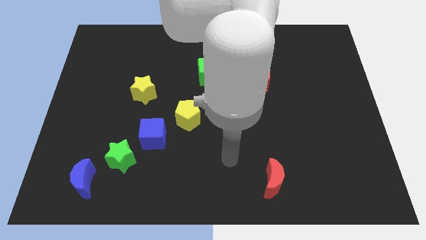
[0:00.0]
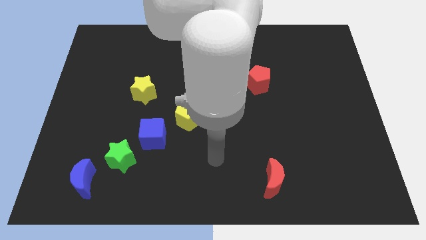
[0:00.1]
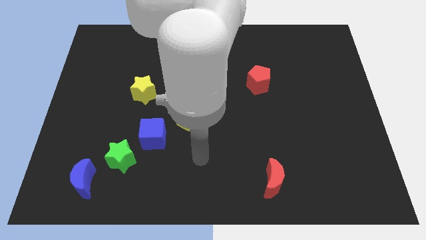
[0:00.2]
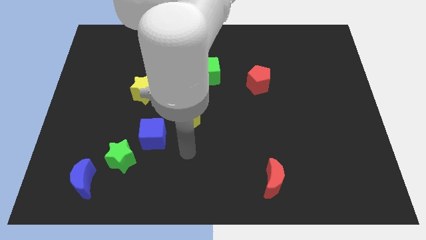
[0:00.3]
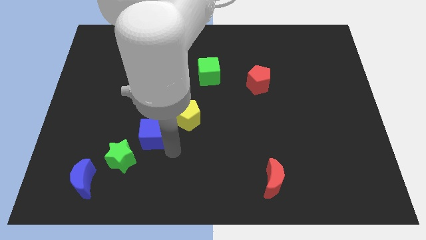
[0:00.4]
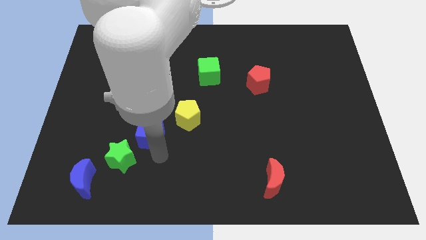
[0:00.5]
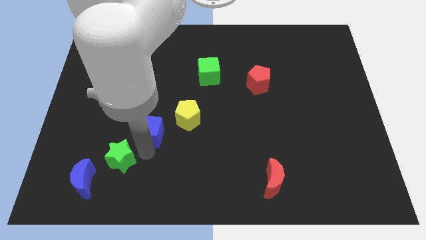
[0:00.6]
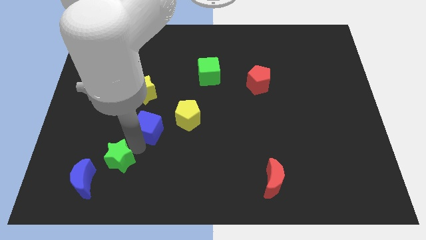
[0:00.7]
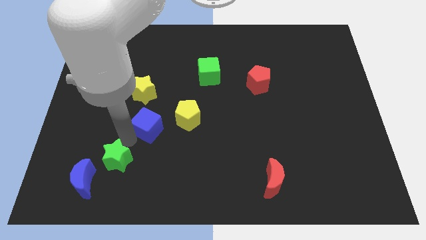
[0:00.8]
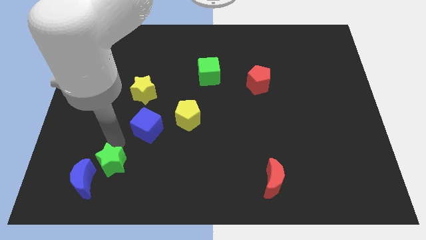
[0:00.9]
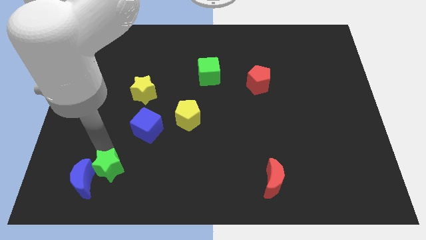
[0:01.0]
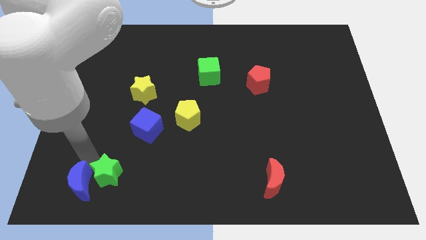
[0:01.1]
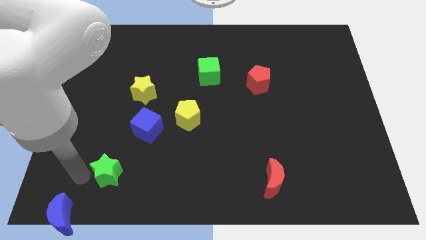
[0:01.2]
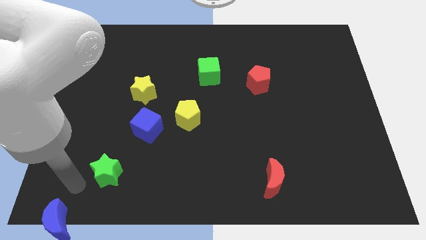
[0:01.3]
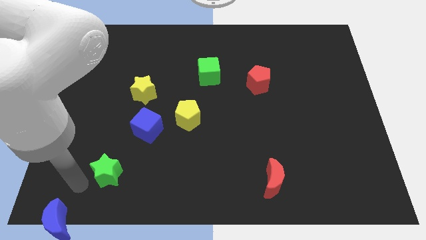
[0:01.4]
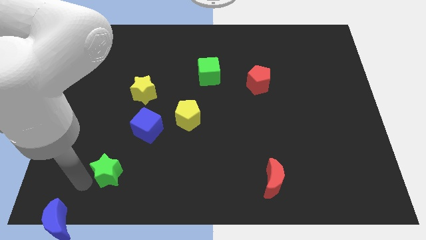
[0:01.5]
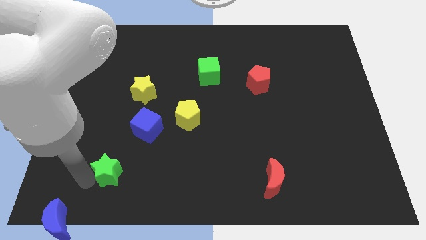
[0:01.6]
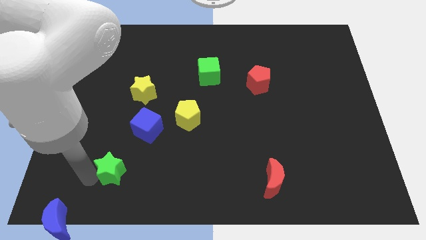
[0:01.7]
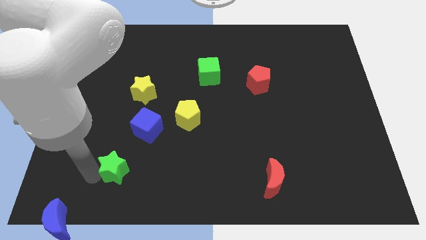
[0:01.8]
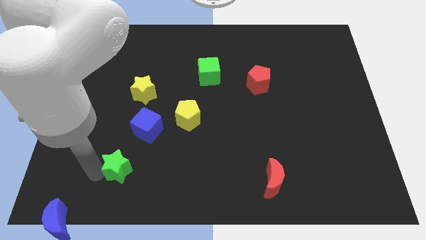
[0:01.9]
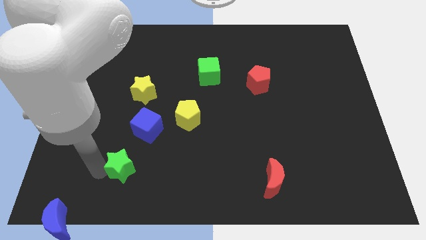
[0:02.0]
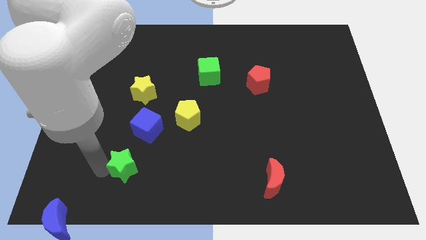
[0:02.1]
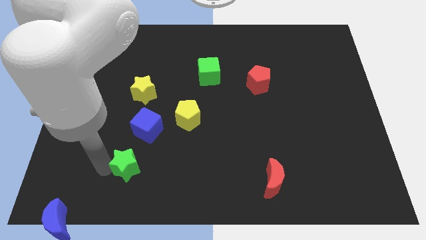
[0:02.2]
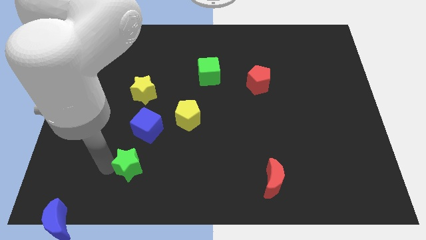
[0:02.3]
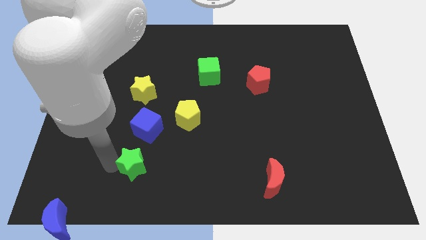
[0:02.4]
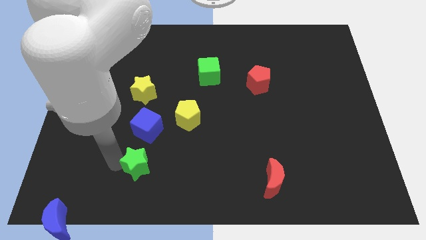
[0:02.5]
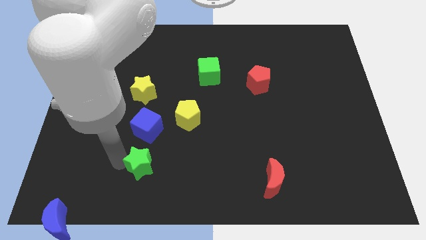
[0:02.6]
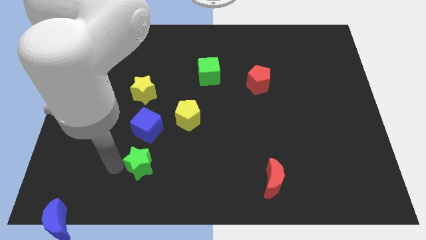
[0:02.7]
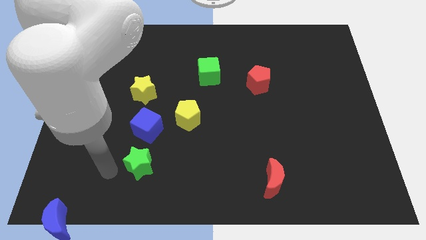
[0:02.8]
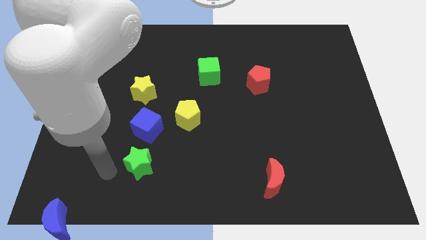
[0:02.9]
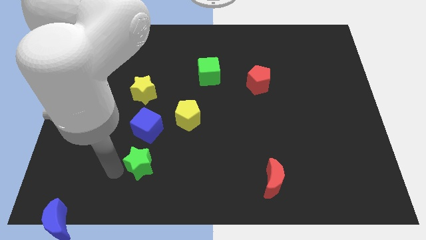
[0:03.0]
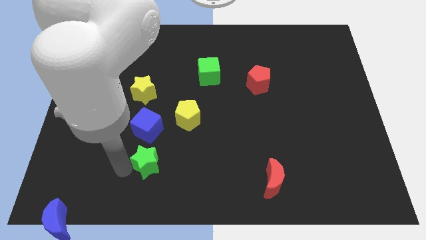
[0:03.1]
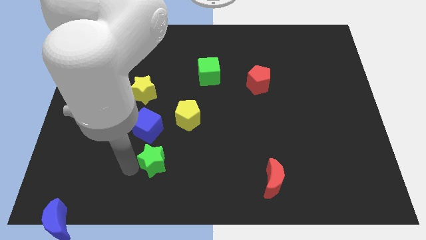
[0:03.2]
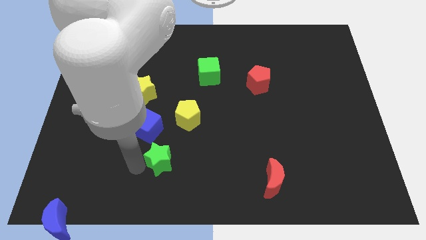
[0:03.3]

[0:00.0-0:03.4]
separate the green star from the blue cube and blue moon

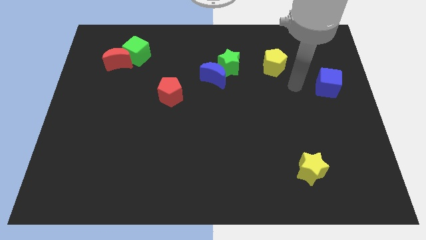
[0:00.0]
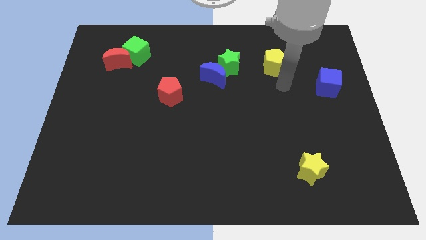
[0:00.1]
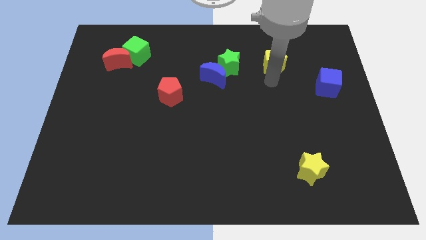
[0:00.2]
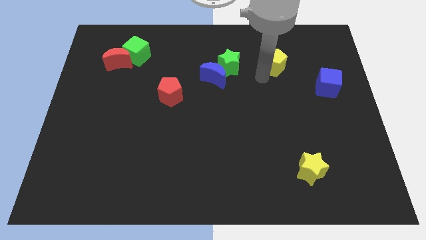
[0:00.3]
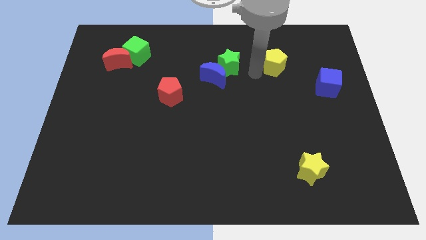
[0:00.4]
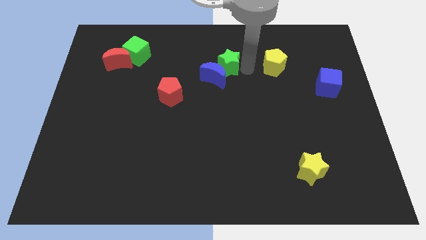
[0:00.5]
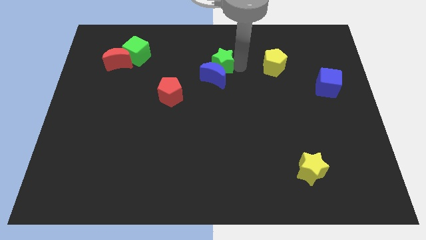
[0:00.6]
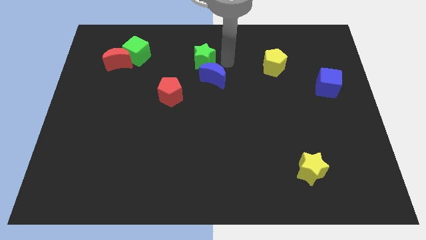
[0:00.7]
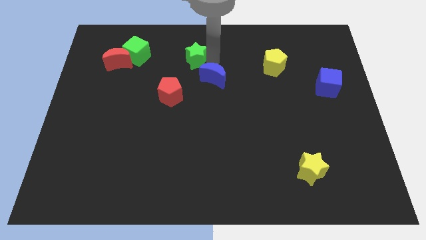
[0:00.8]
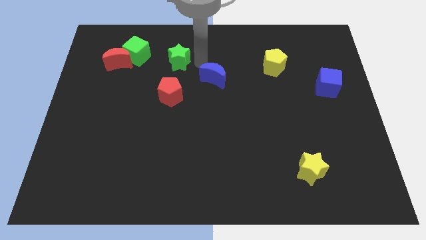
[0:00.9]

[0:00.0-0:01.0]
pull the blue moon apart from the green star

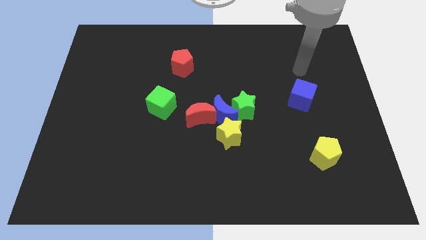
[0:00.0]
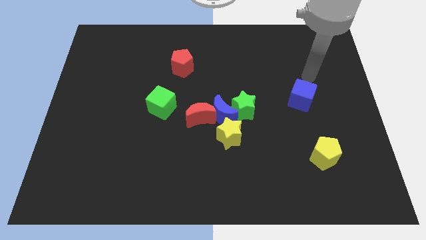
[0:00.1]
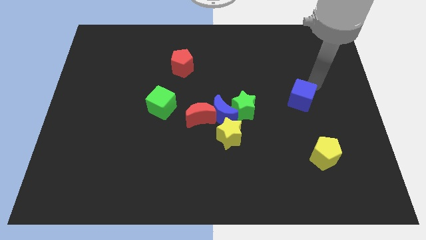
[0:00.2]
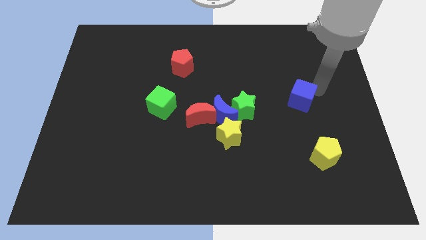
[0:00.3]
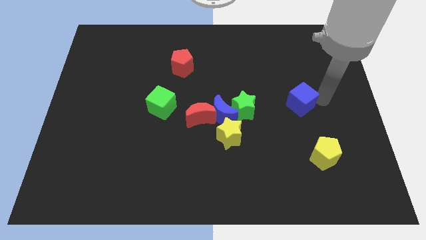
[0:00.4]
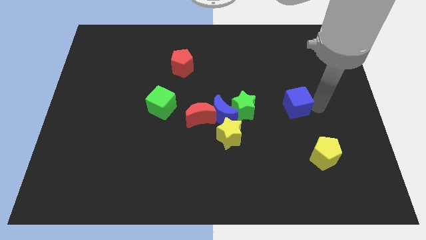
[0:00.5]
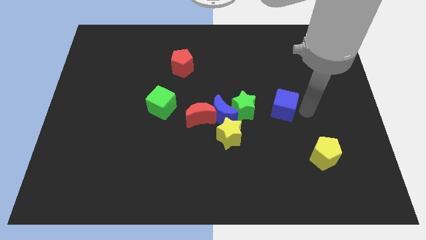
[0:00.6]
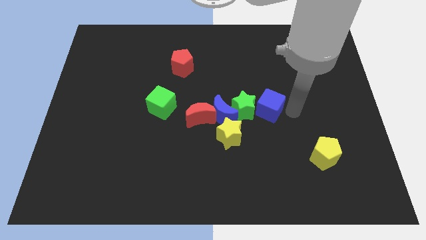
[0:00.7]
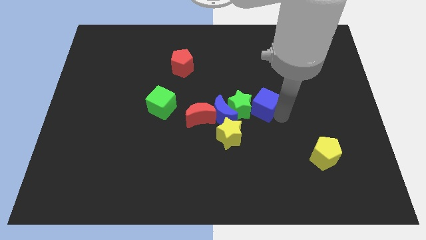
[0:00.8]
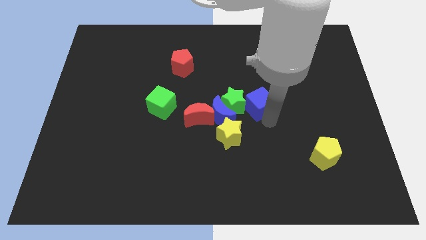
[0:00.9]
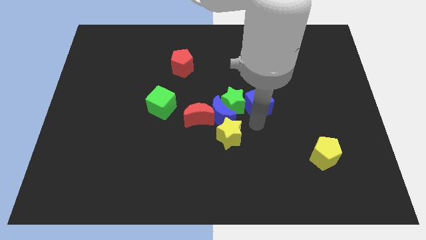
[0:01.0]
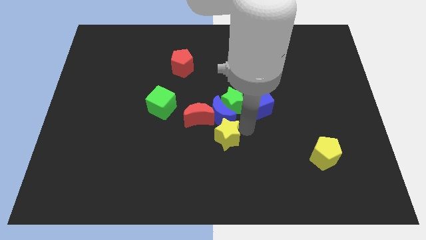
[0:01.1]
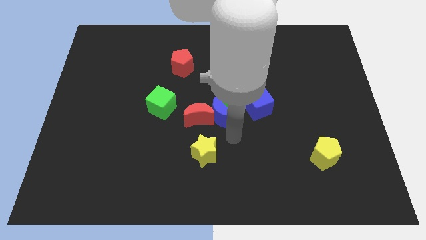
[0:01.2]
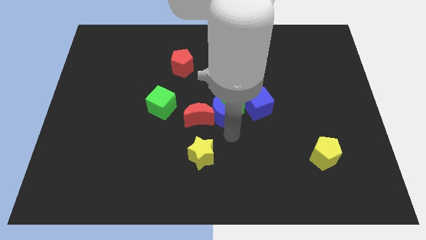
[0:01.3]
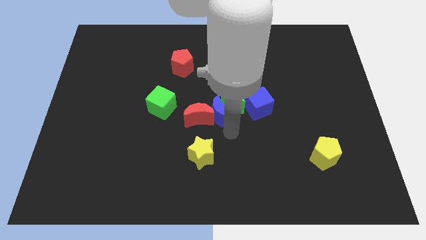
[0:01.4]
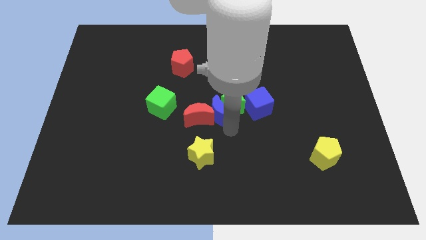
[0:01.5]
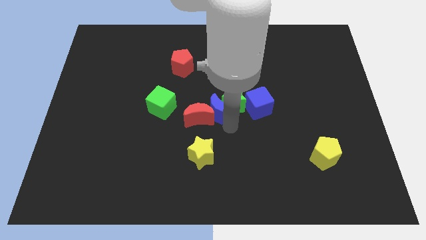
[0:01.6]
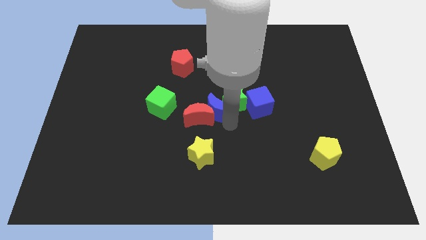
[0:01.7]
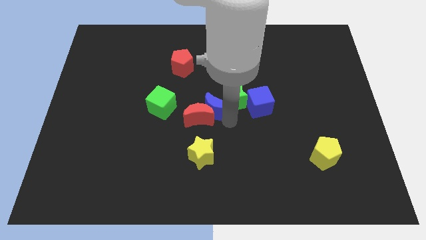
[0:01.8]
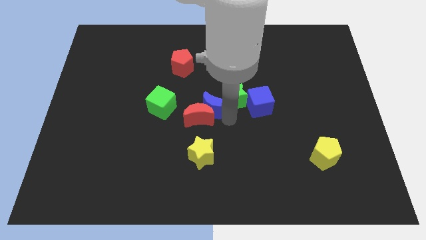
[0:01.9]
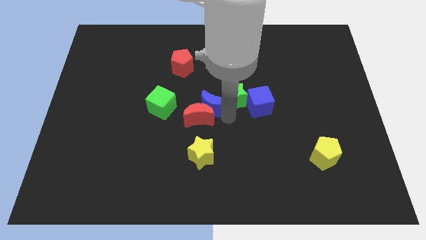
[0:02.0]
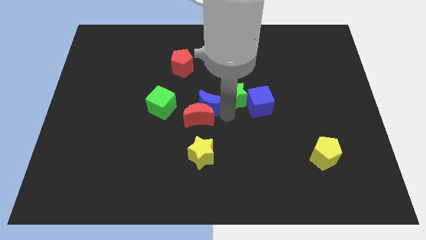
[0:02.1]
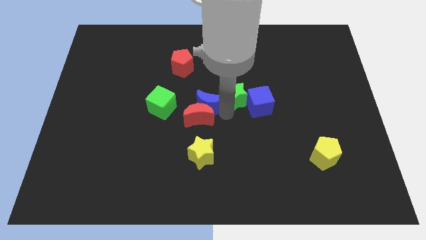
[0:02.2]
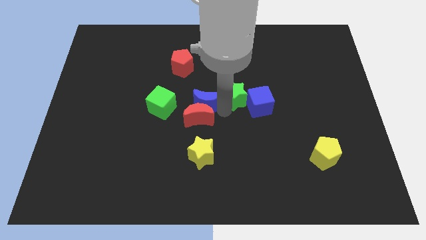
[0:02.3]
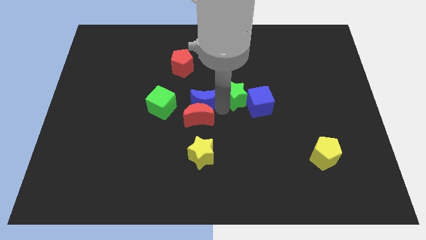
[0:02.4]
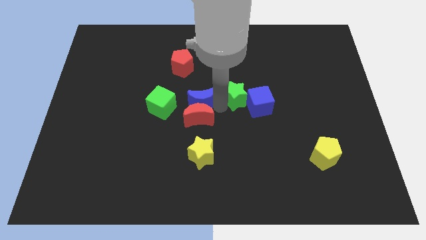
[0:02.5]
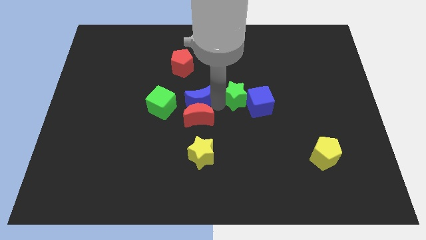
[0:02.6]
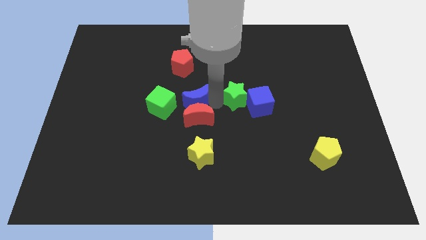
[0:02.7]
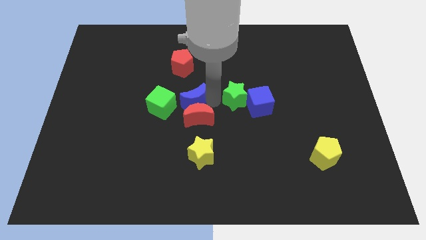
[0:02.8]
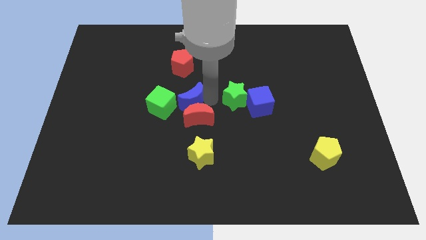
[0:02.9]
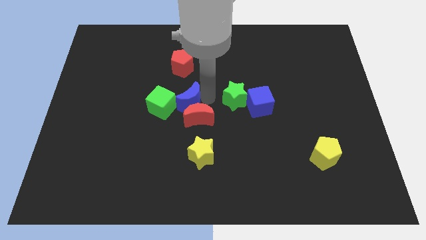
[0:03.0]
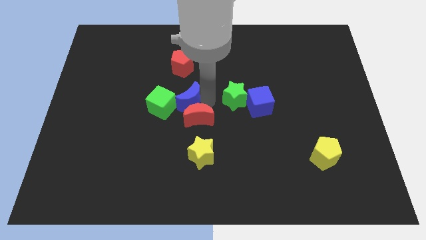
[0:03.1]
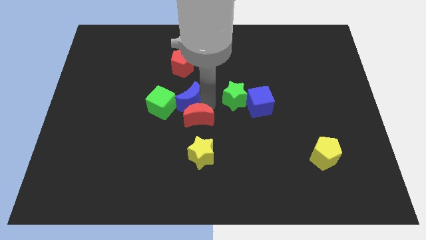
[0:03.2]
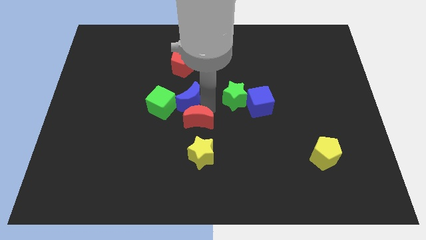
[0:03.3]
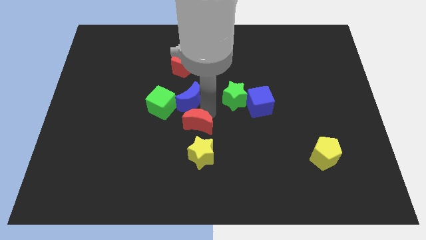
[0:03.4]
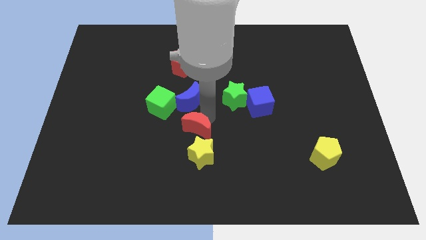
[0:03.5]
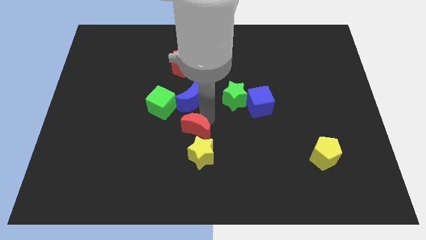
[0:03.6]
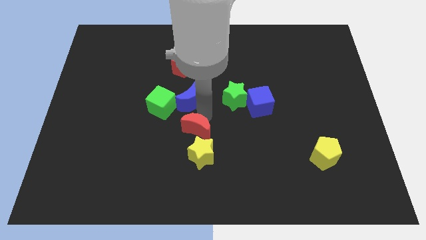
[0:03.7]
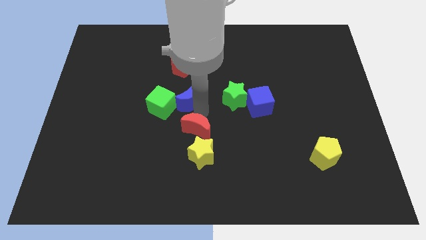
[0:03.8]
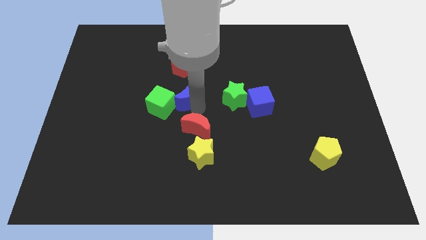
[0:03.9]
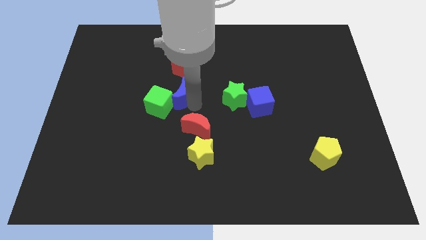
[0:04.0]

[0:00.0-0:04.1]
separate the blue moon from the red moon, green star, and yellow star

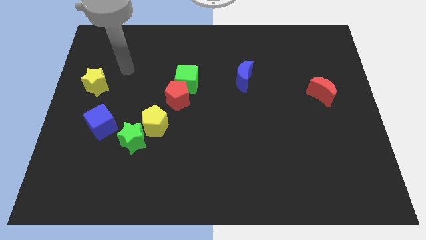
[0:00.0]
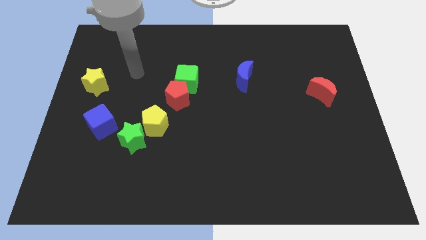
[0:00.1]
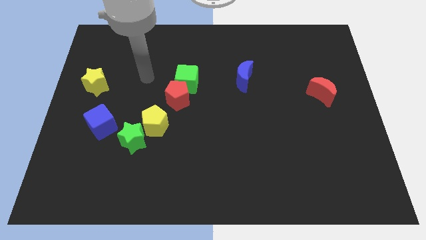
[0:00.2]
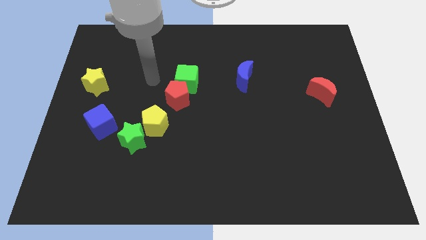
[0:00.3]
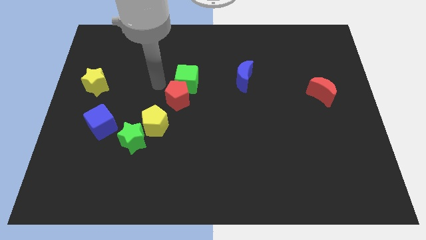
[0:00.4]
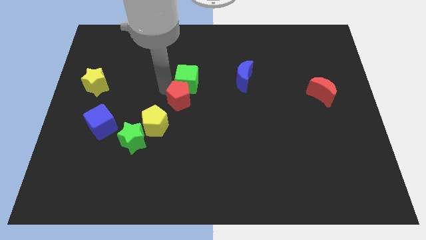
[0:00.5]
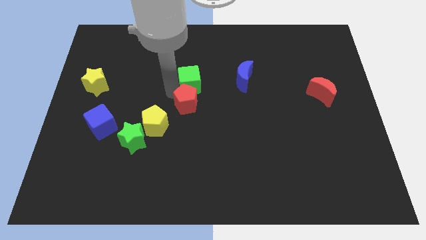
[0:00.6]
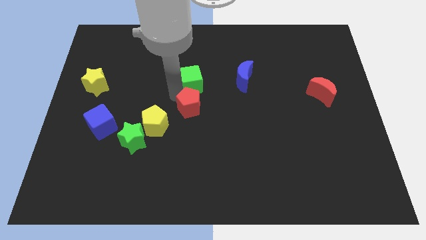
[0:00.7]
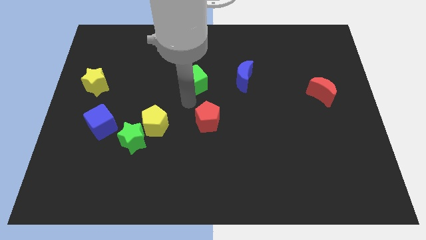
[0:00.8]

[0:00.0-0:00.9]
pull the green cube apart from the red pentagon
